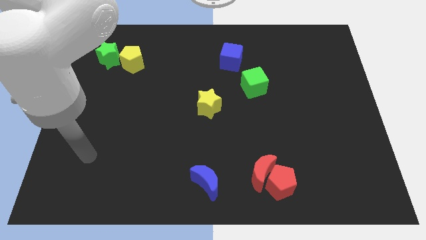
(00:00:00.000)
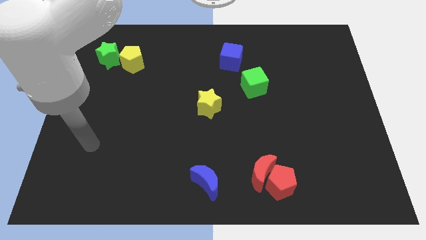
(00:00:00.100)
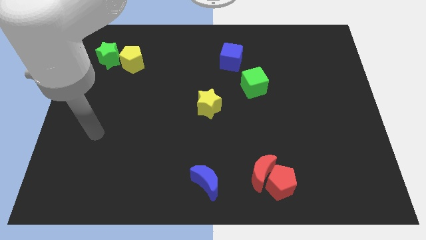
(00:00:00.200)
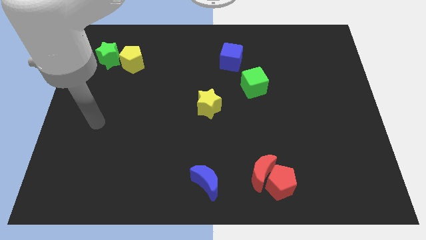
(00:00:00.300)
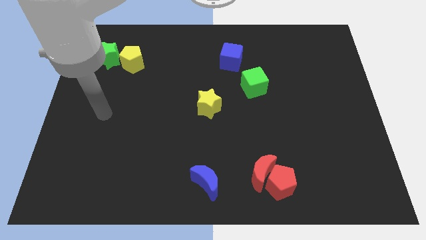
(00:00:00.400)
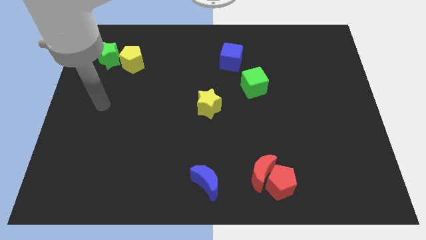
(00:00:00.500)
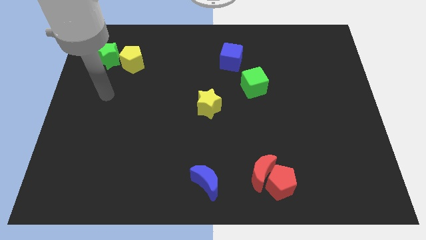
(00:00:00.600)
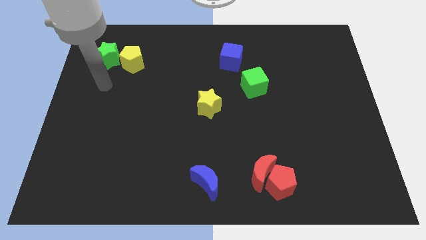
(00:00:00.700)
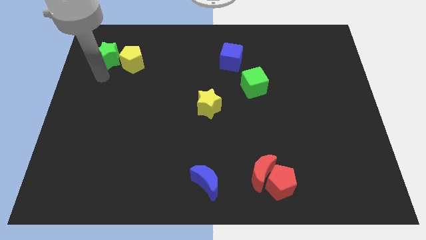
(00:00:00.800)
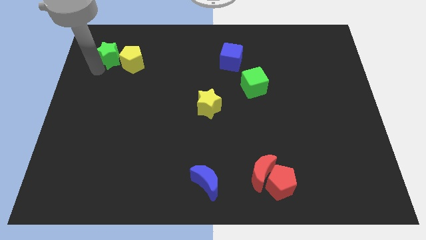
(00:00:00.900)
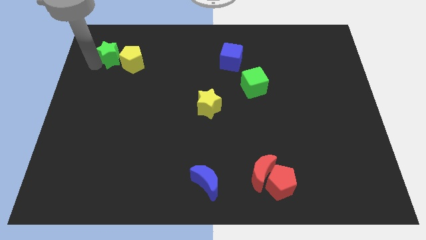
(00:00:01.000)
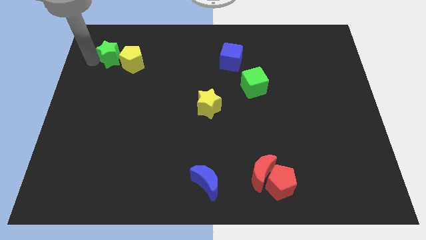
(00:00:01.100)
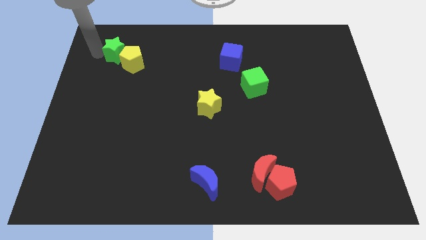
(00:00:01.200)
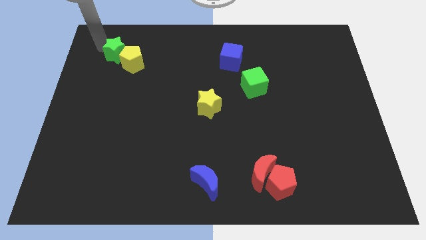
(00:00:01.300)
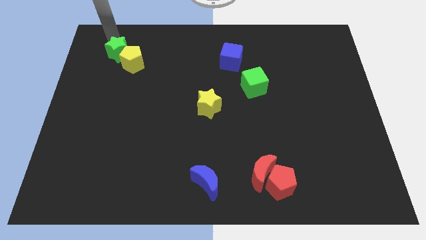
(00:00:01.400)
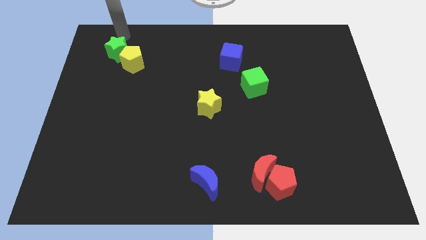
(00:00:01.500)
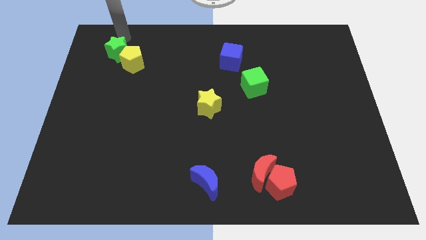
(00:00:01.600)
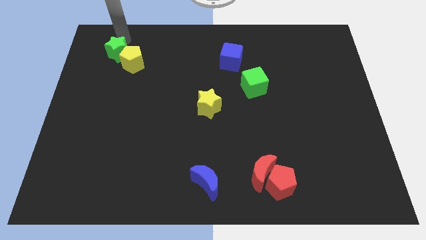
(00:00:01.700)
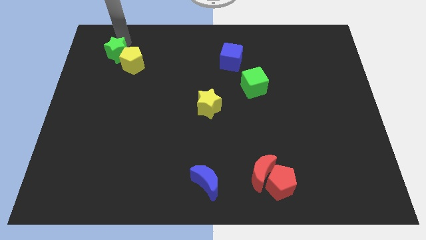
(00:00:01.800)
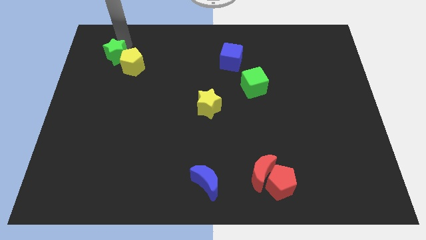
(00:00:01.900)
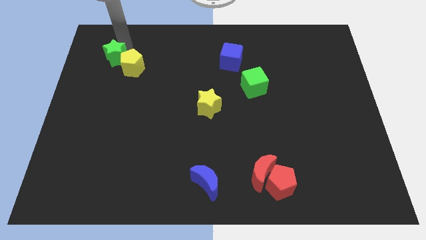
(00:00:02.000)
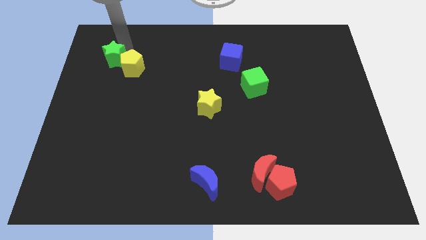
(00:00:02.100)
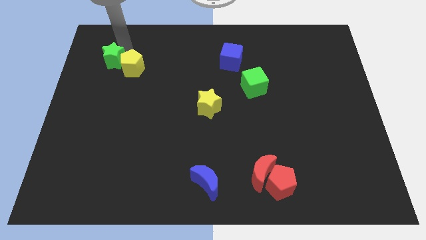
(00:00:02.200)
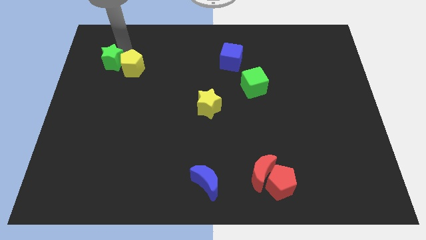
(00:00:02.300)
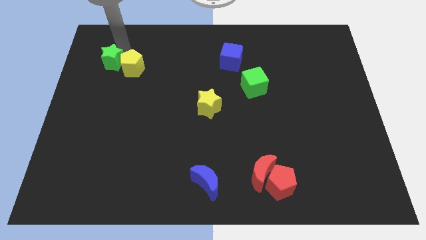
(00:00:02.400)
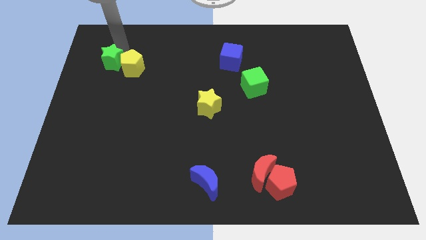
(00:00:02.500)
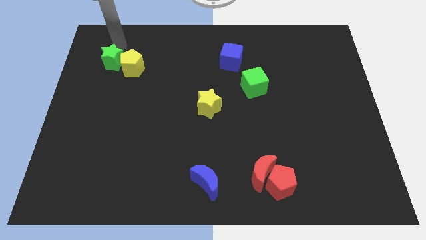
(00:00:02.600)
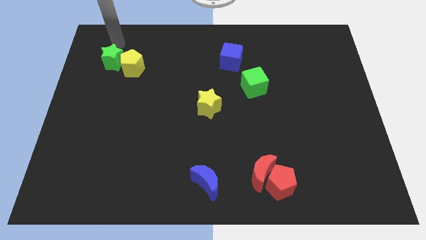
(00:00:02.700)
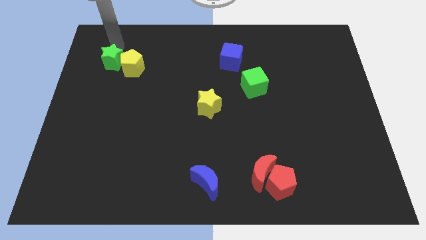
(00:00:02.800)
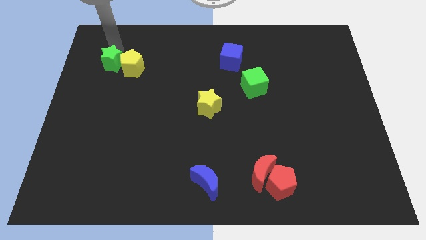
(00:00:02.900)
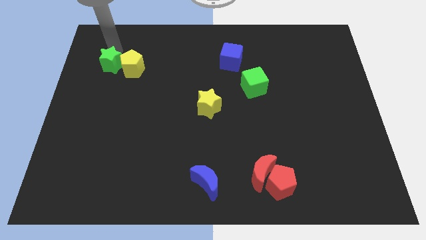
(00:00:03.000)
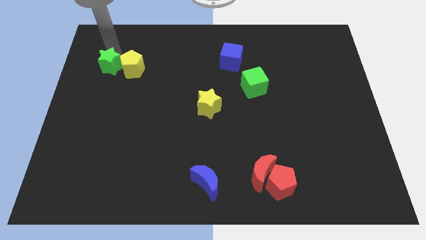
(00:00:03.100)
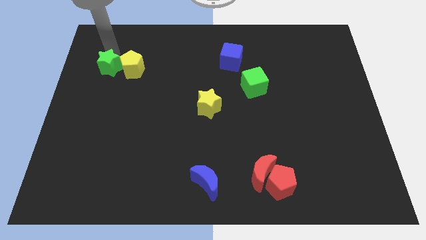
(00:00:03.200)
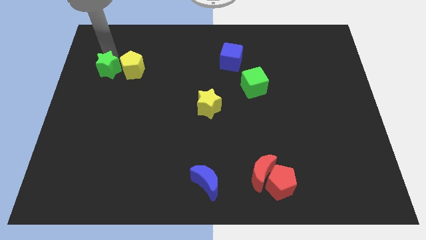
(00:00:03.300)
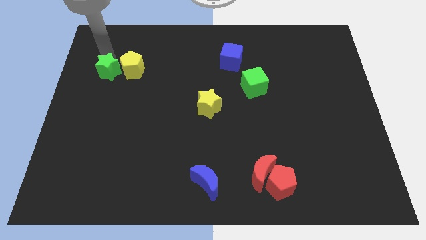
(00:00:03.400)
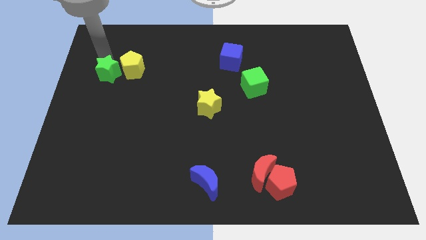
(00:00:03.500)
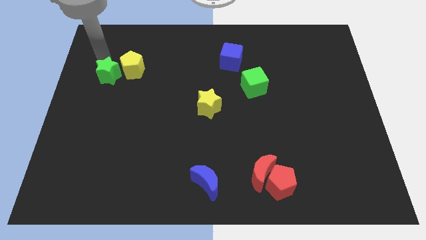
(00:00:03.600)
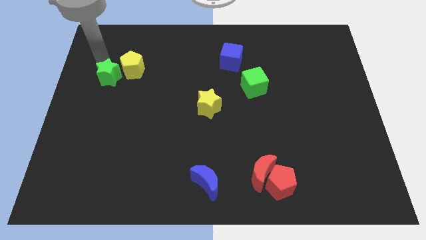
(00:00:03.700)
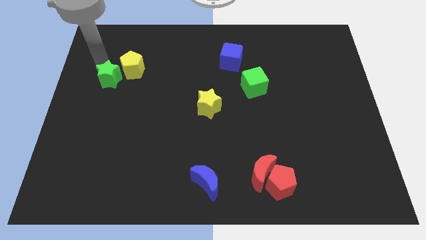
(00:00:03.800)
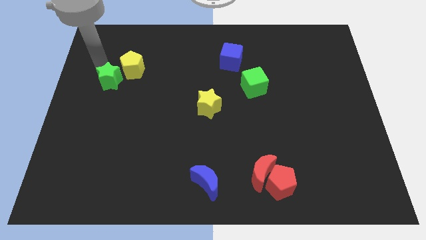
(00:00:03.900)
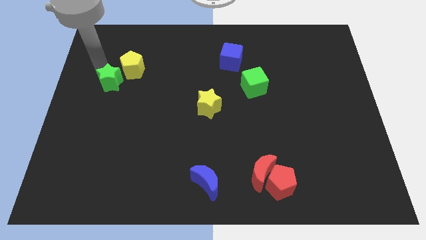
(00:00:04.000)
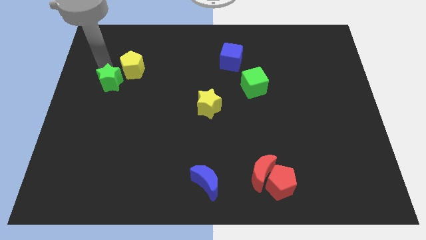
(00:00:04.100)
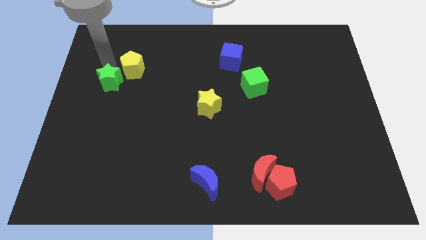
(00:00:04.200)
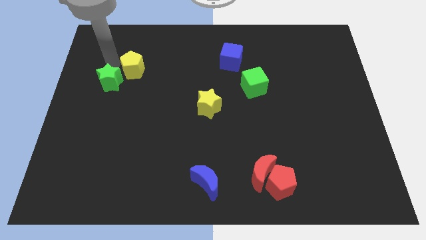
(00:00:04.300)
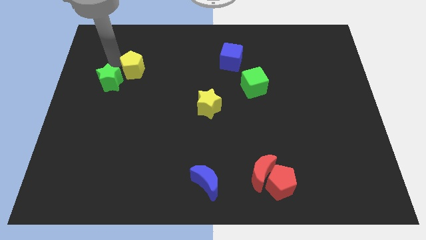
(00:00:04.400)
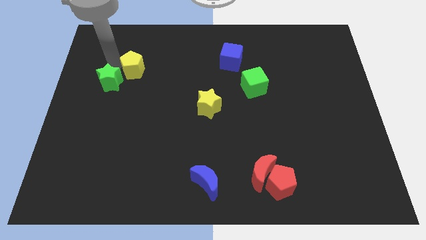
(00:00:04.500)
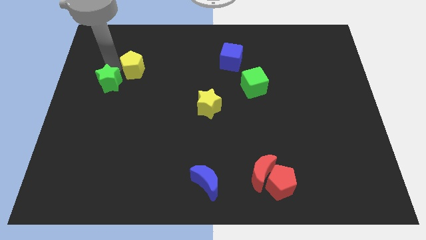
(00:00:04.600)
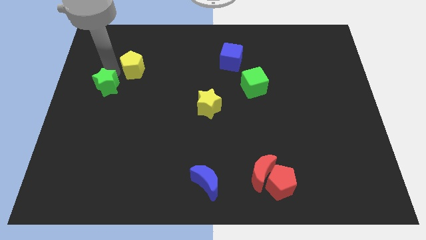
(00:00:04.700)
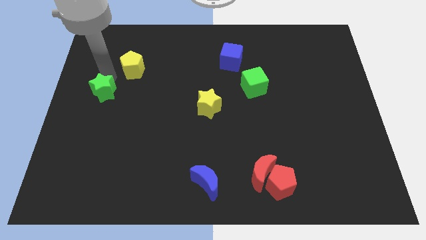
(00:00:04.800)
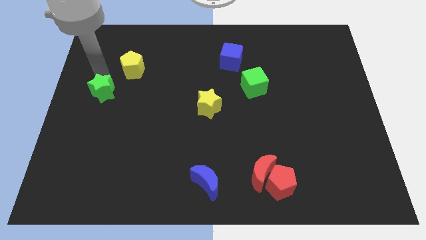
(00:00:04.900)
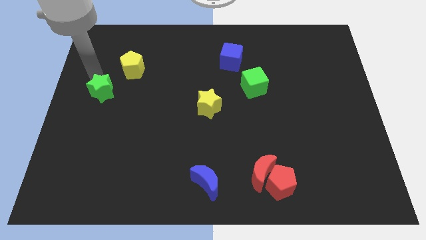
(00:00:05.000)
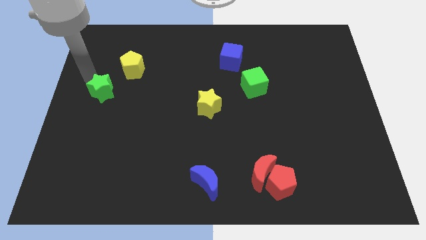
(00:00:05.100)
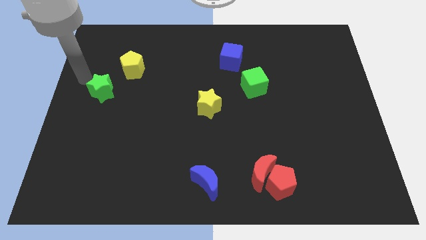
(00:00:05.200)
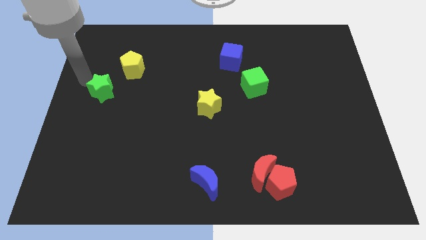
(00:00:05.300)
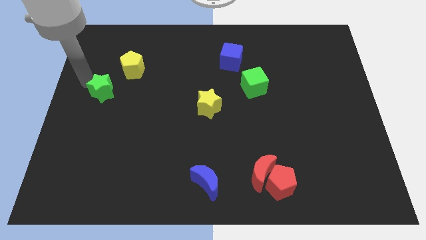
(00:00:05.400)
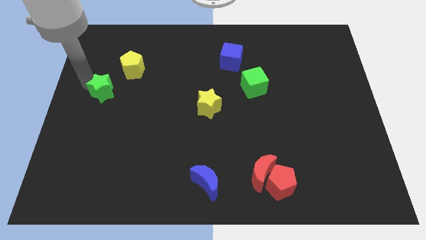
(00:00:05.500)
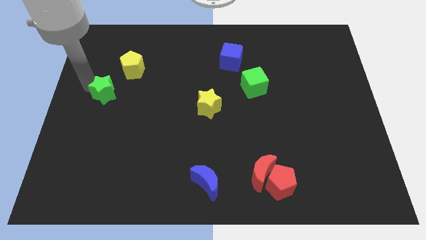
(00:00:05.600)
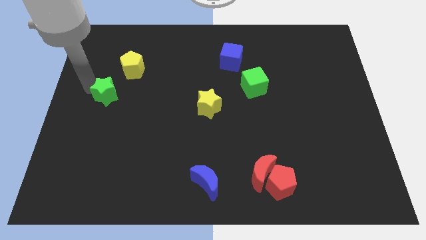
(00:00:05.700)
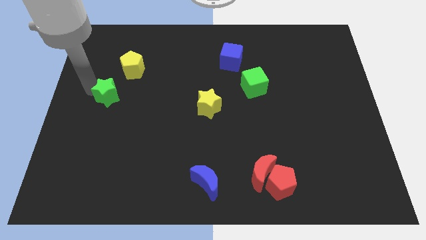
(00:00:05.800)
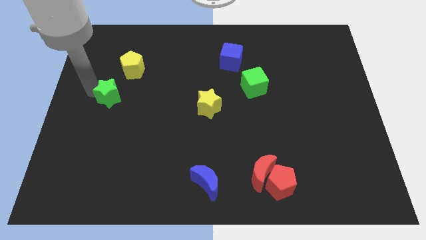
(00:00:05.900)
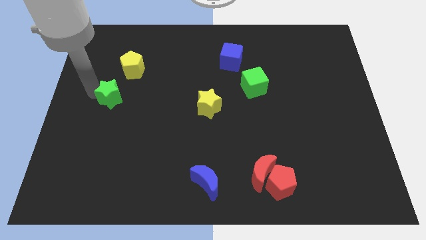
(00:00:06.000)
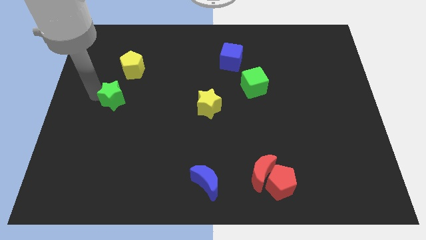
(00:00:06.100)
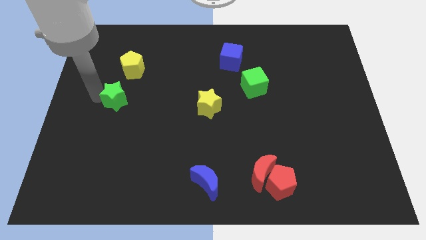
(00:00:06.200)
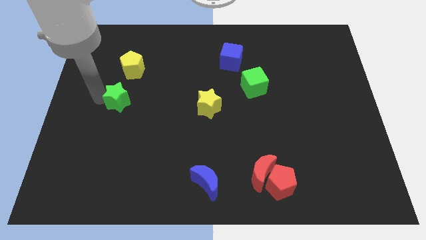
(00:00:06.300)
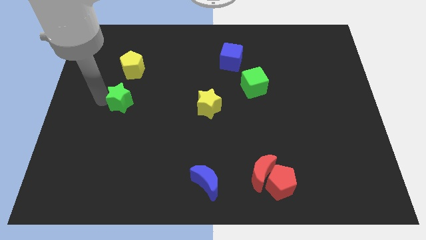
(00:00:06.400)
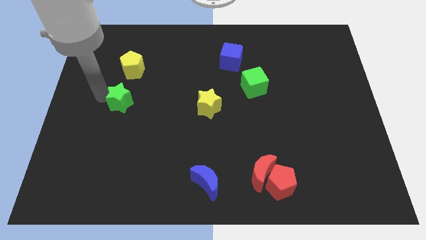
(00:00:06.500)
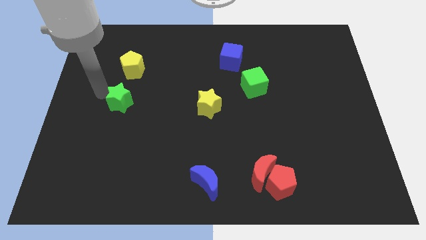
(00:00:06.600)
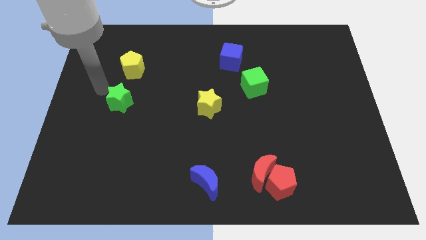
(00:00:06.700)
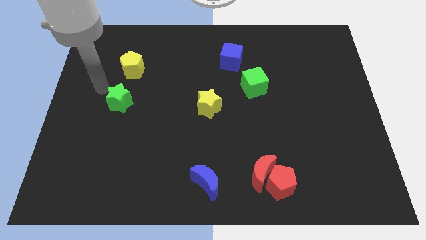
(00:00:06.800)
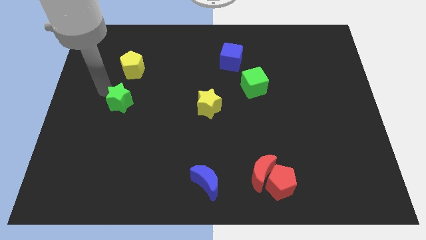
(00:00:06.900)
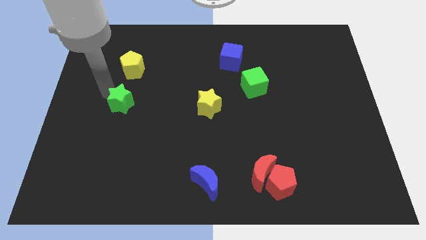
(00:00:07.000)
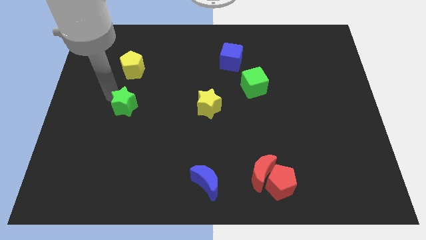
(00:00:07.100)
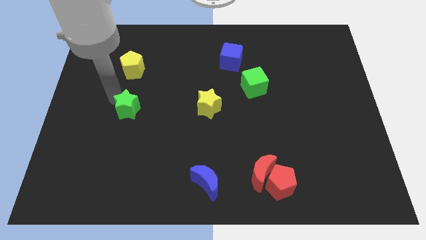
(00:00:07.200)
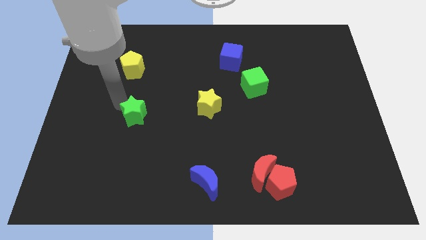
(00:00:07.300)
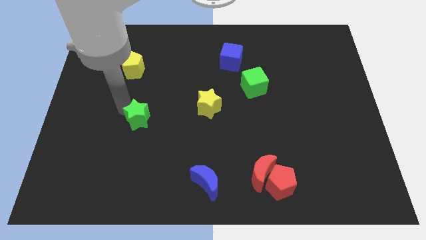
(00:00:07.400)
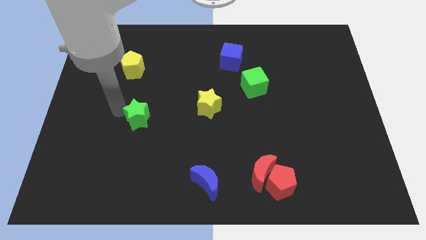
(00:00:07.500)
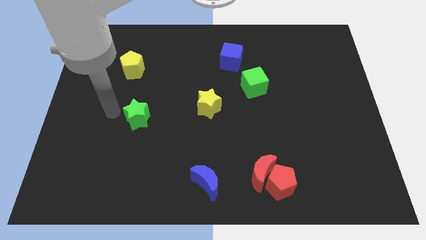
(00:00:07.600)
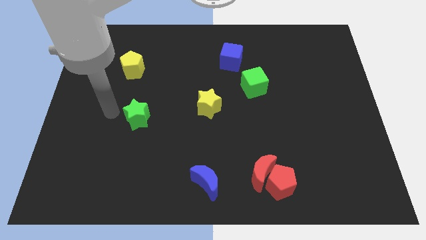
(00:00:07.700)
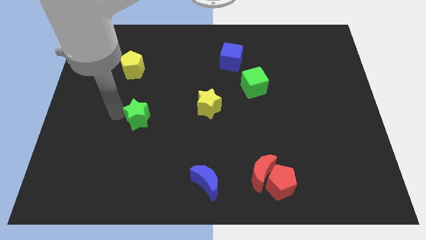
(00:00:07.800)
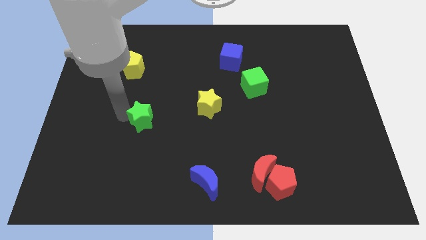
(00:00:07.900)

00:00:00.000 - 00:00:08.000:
slide the green star down and right

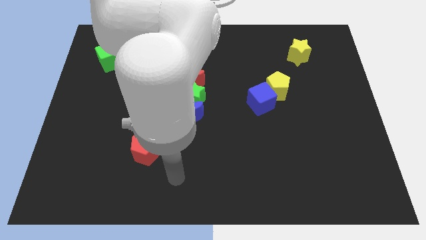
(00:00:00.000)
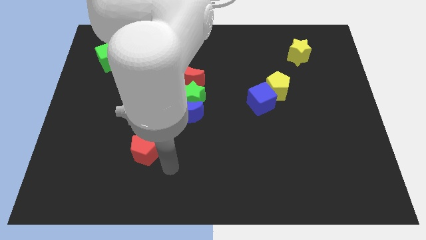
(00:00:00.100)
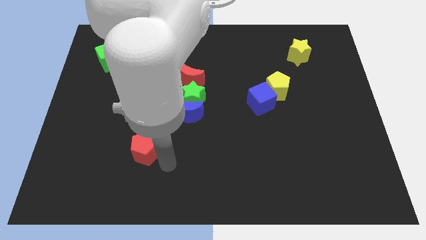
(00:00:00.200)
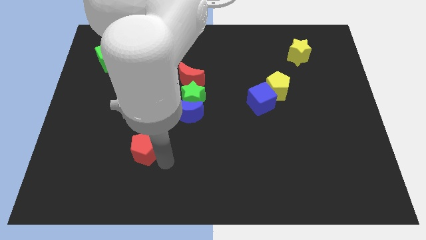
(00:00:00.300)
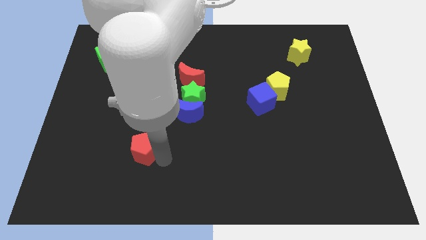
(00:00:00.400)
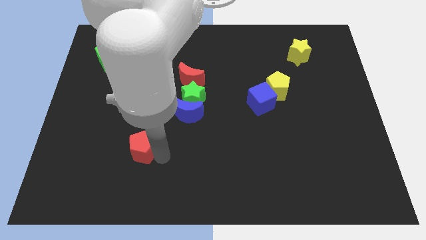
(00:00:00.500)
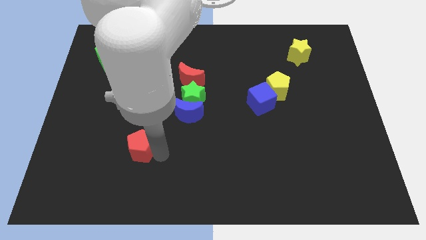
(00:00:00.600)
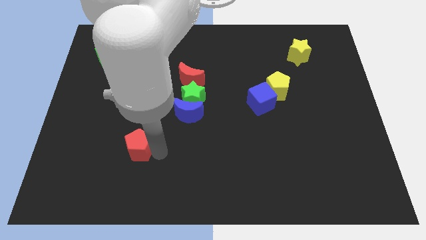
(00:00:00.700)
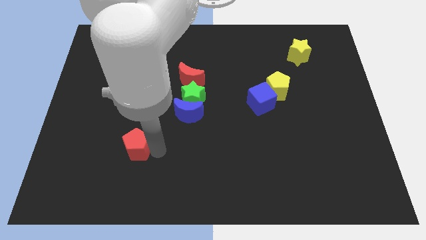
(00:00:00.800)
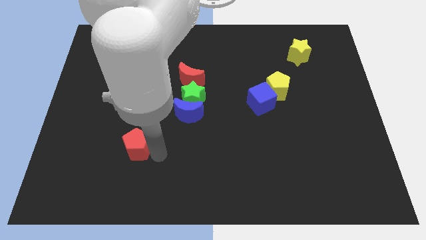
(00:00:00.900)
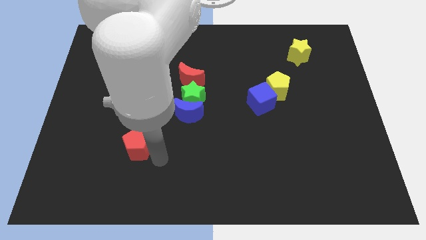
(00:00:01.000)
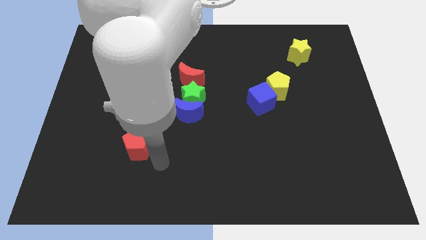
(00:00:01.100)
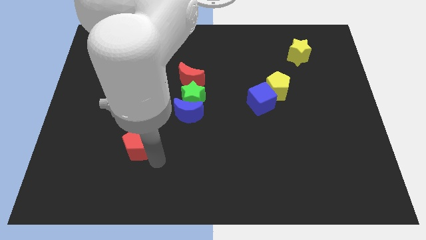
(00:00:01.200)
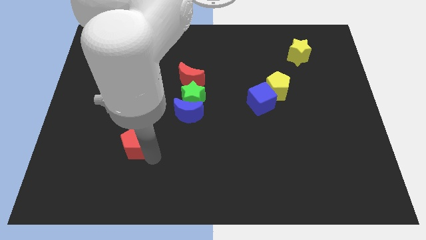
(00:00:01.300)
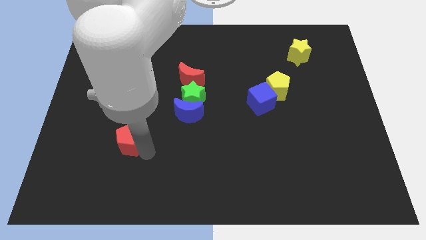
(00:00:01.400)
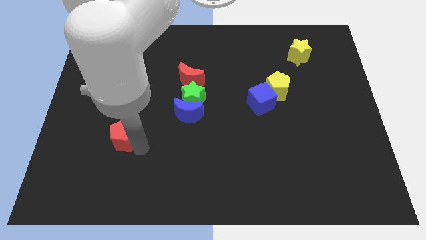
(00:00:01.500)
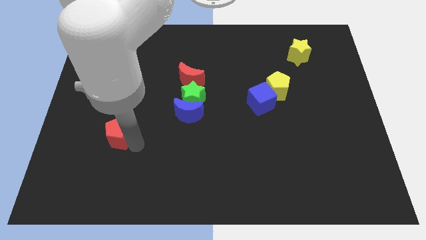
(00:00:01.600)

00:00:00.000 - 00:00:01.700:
move the red pentagon upwards and then left slightly
